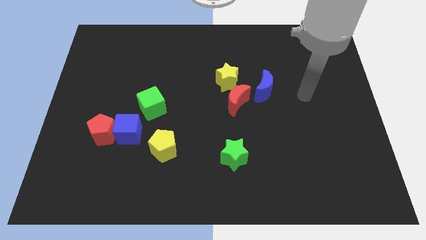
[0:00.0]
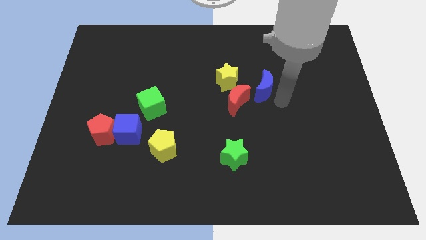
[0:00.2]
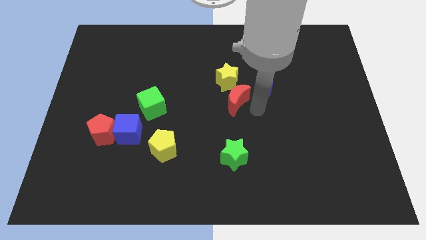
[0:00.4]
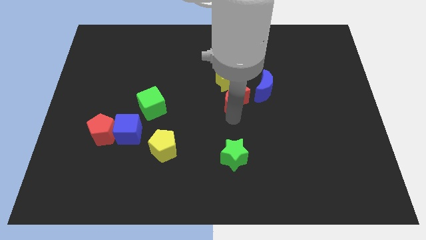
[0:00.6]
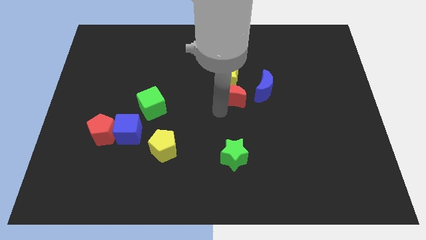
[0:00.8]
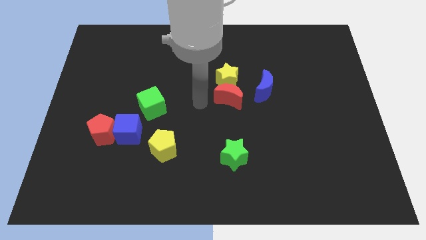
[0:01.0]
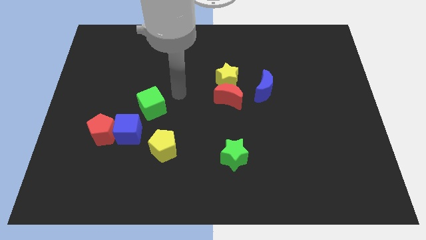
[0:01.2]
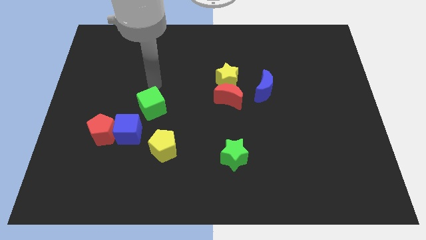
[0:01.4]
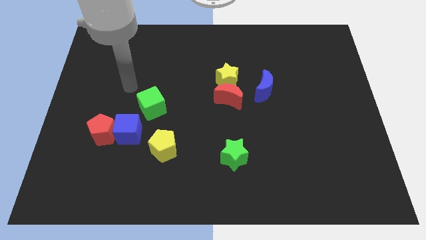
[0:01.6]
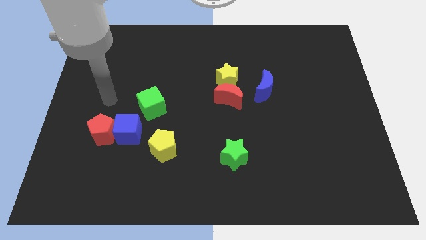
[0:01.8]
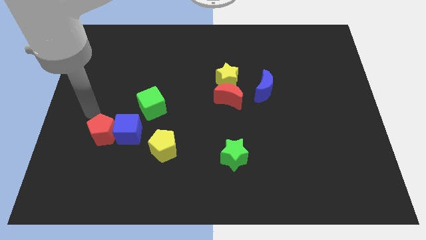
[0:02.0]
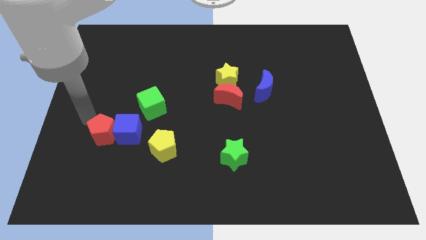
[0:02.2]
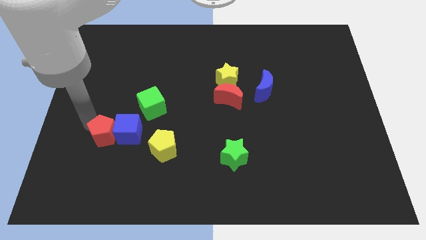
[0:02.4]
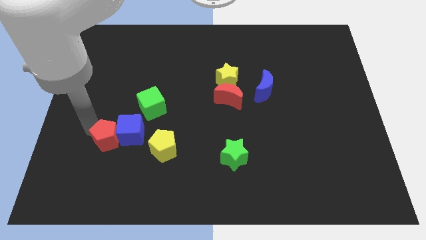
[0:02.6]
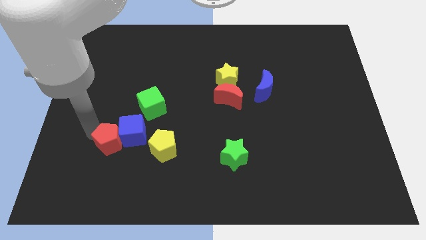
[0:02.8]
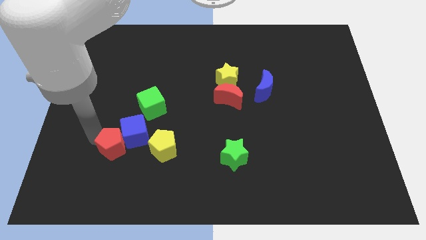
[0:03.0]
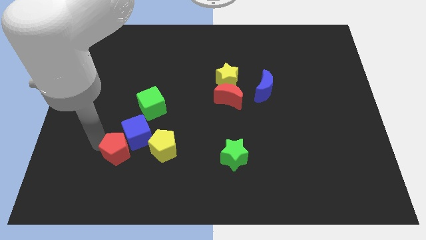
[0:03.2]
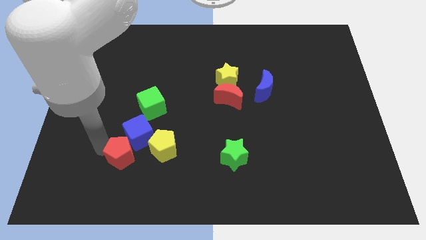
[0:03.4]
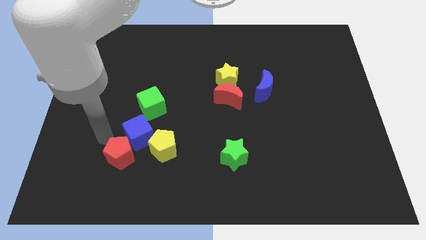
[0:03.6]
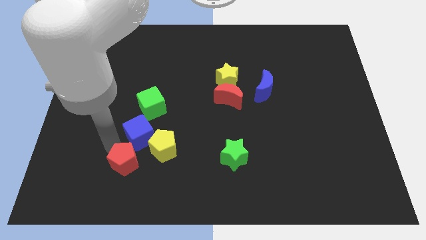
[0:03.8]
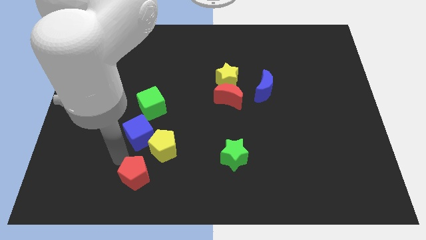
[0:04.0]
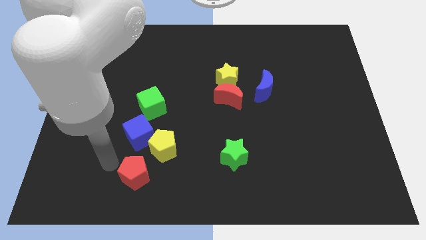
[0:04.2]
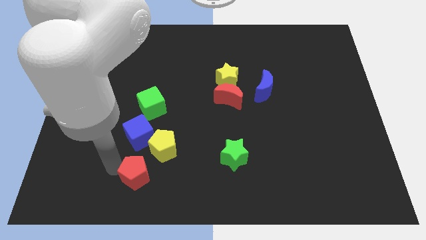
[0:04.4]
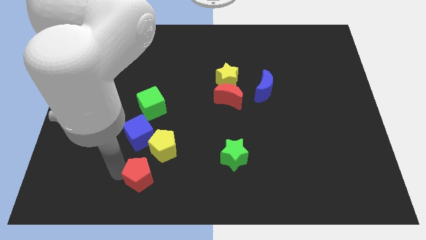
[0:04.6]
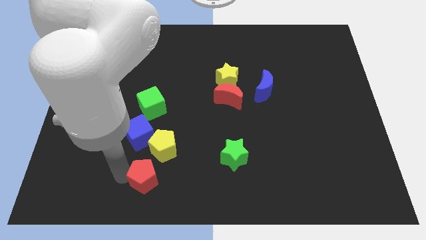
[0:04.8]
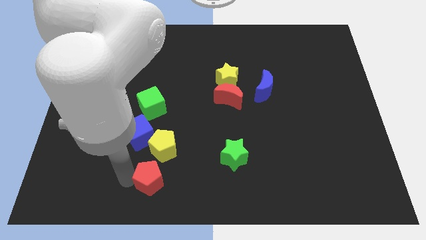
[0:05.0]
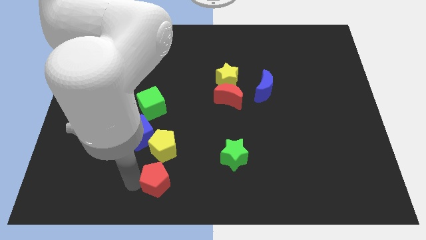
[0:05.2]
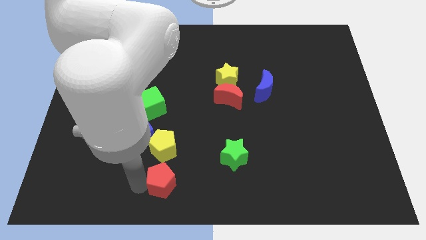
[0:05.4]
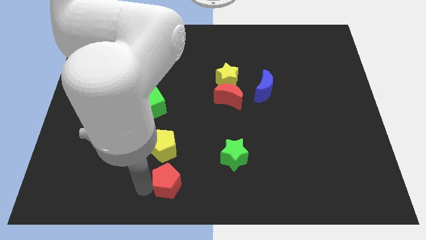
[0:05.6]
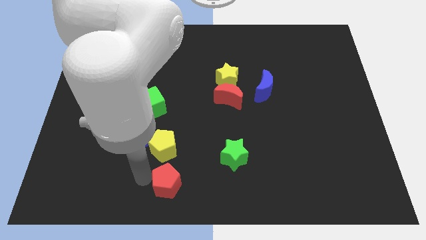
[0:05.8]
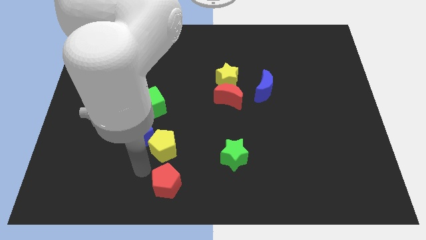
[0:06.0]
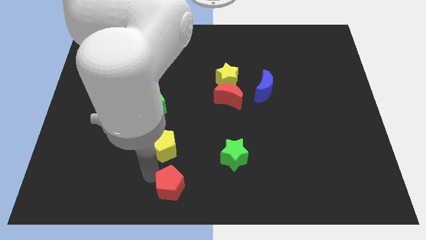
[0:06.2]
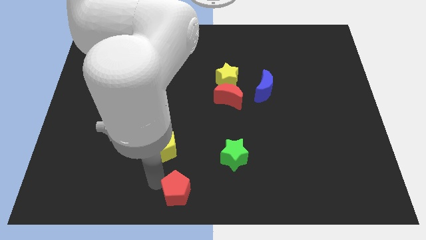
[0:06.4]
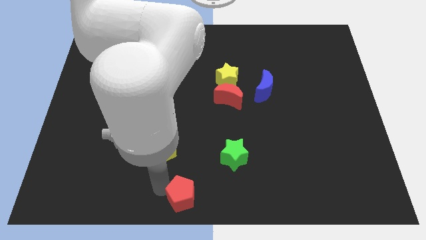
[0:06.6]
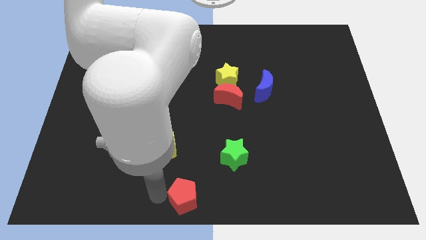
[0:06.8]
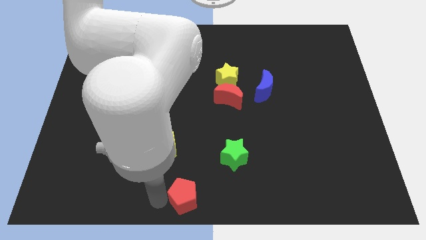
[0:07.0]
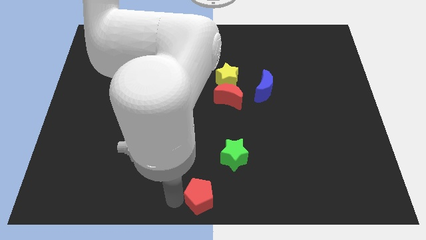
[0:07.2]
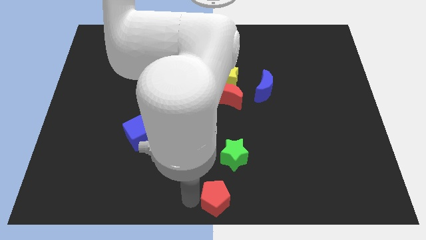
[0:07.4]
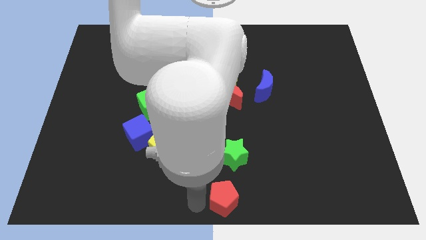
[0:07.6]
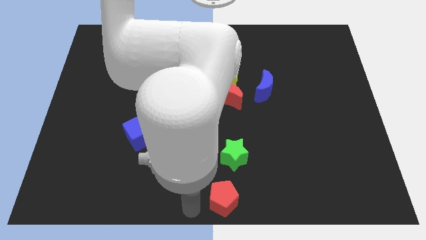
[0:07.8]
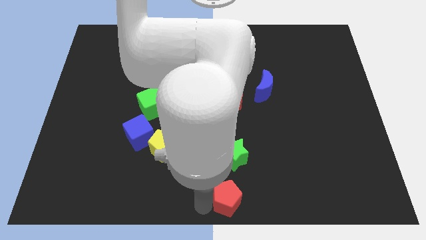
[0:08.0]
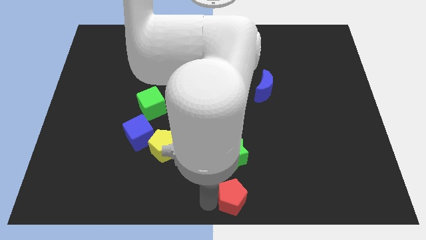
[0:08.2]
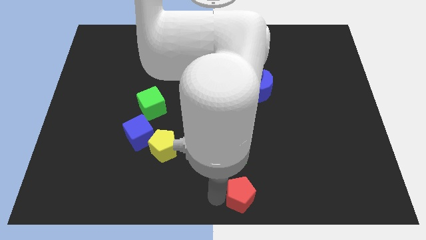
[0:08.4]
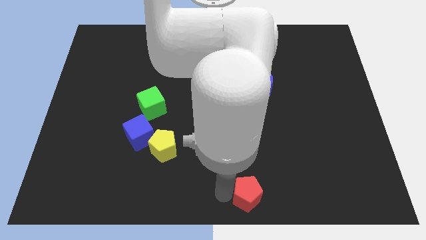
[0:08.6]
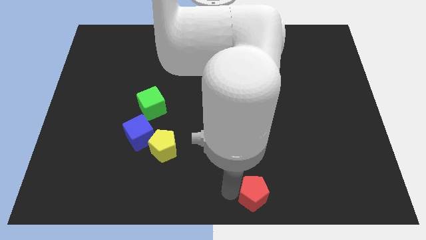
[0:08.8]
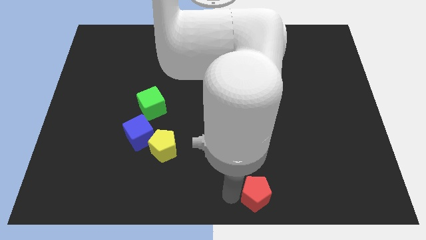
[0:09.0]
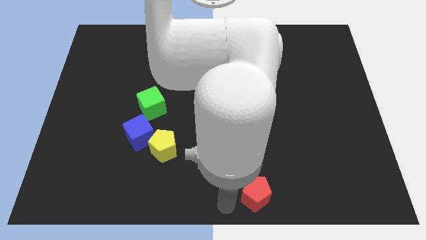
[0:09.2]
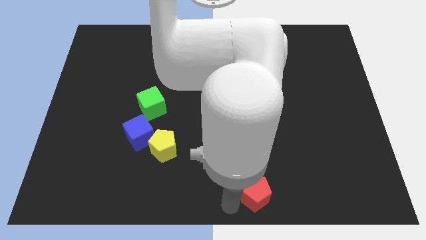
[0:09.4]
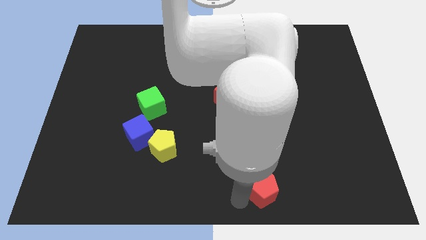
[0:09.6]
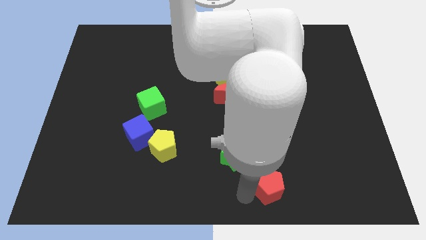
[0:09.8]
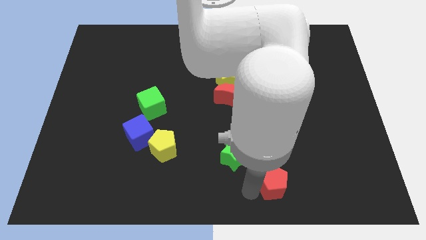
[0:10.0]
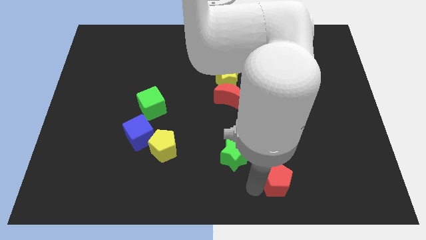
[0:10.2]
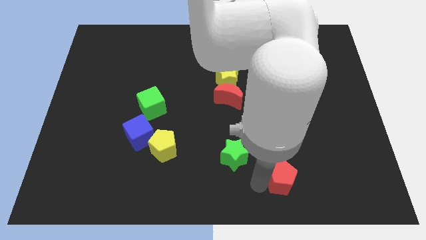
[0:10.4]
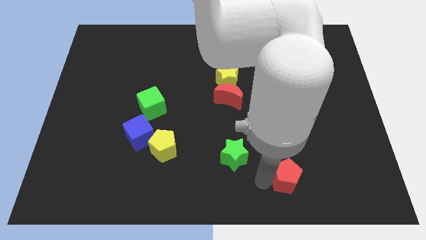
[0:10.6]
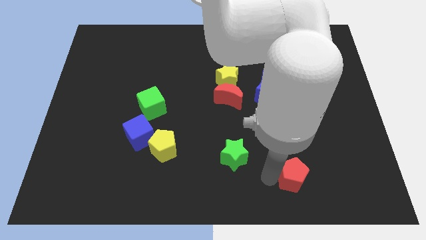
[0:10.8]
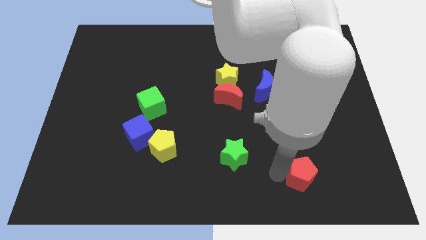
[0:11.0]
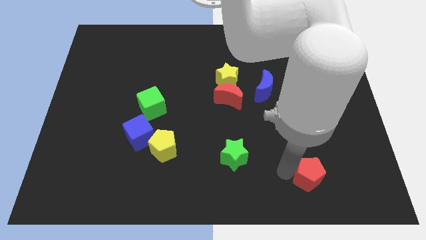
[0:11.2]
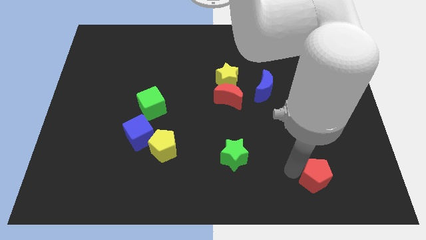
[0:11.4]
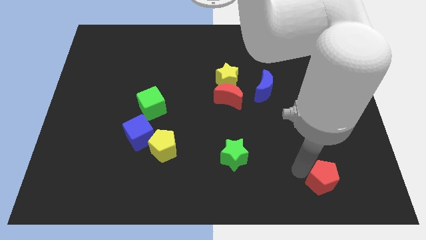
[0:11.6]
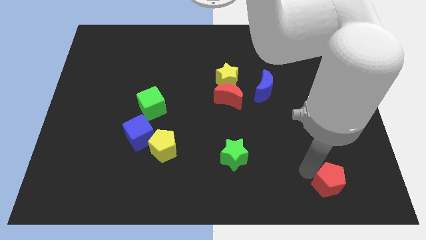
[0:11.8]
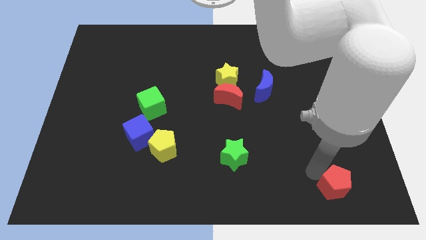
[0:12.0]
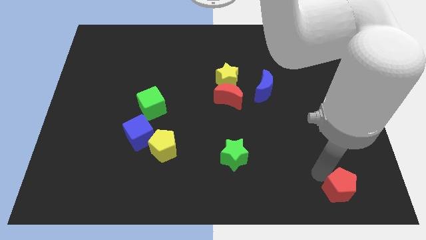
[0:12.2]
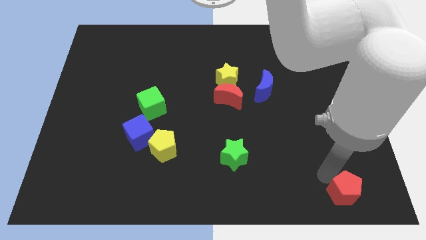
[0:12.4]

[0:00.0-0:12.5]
put the red pentagon to the bottom right corner

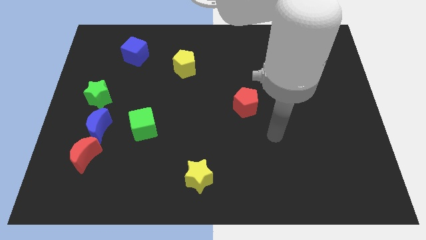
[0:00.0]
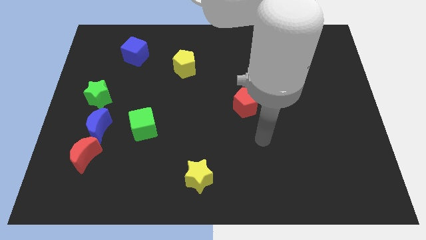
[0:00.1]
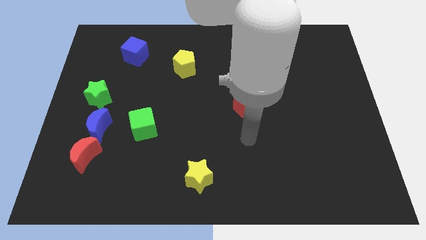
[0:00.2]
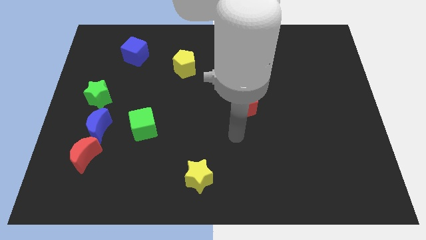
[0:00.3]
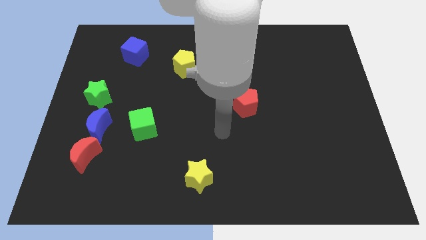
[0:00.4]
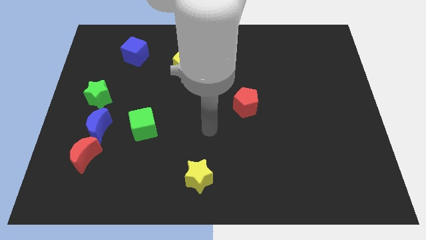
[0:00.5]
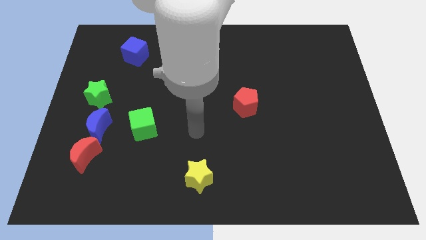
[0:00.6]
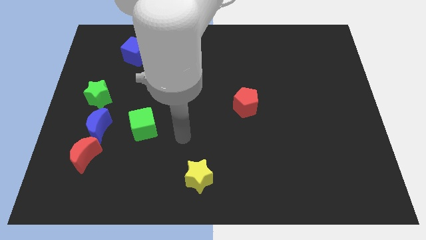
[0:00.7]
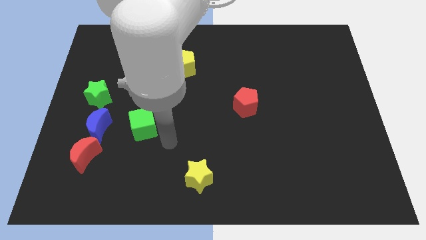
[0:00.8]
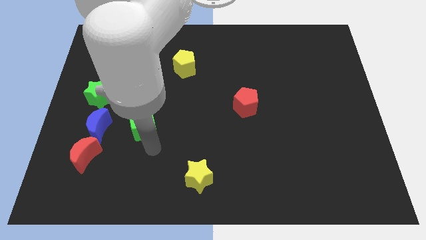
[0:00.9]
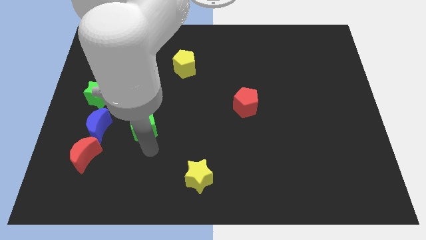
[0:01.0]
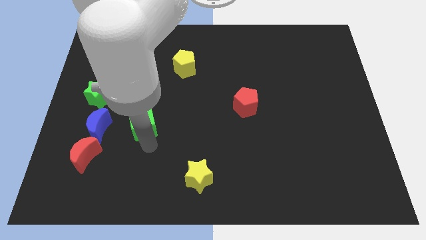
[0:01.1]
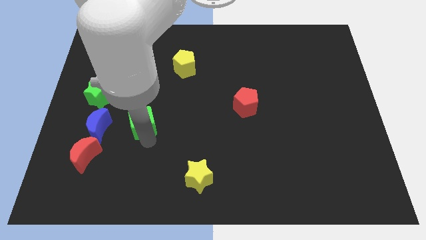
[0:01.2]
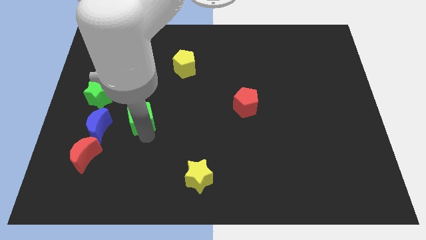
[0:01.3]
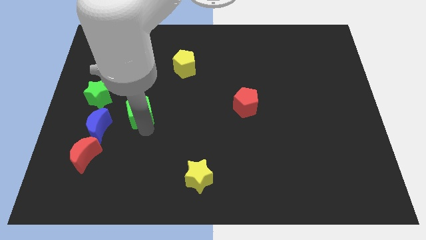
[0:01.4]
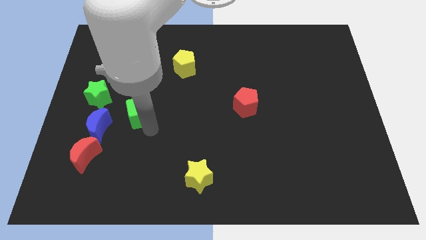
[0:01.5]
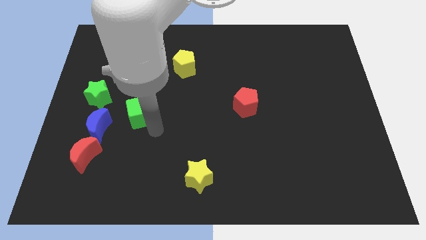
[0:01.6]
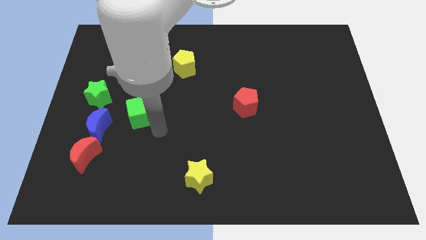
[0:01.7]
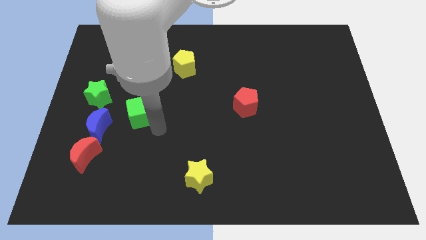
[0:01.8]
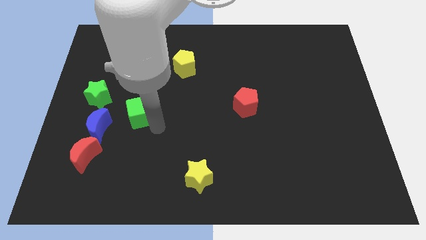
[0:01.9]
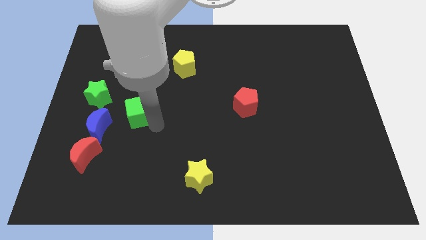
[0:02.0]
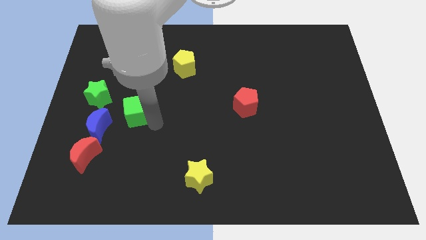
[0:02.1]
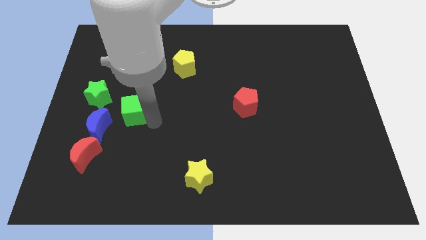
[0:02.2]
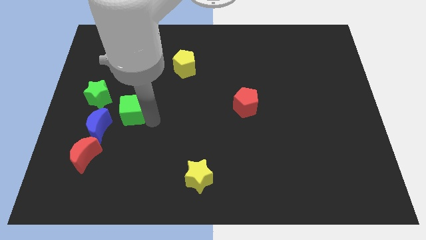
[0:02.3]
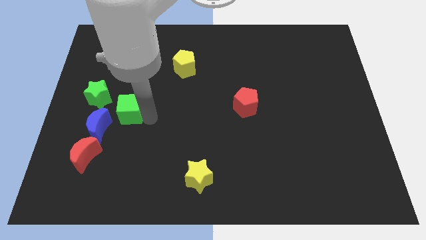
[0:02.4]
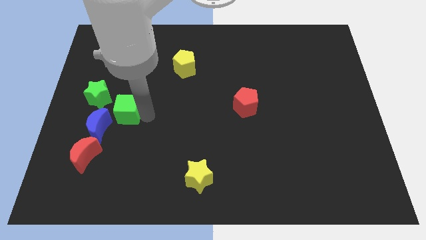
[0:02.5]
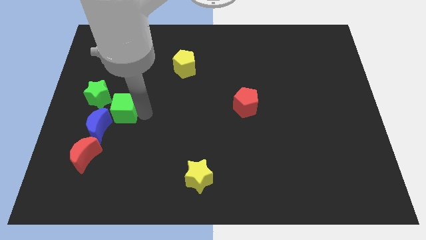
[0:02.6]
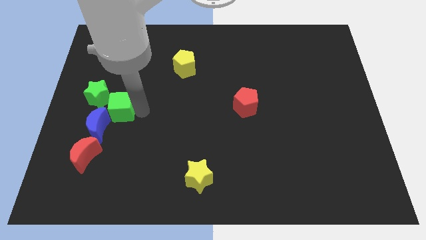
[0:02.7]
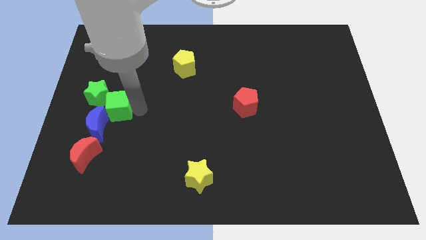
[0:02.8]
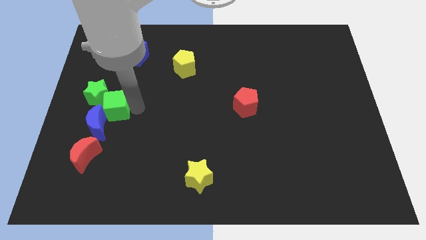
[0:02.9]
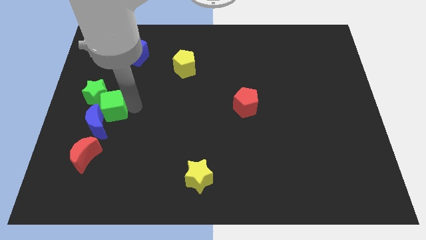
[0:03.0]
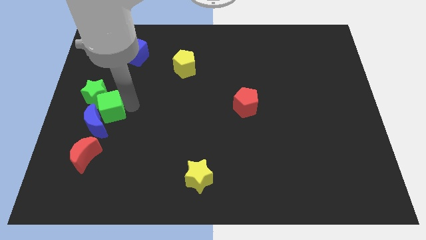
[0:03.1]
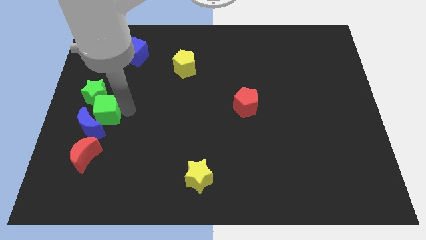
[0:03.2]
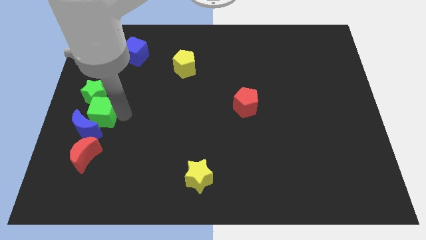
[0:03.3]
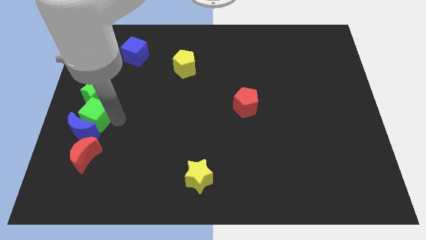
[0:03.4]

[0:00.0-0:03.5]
move the green cube to the left side of the board
